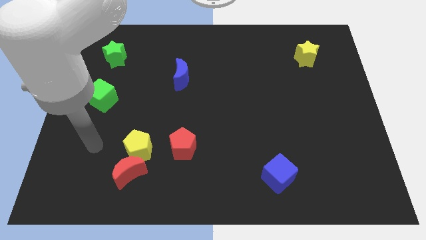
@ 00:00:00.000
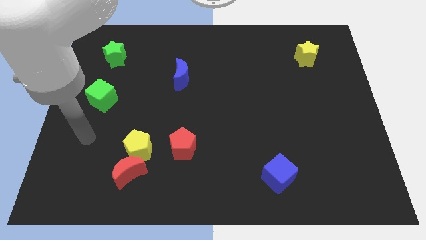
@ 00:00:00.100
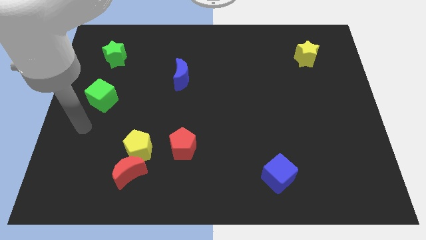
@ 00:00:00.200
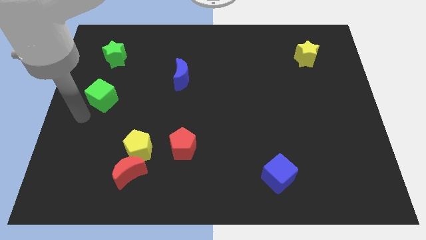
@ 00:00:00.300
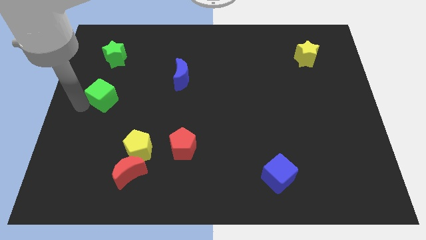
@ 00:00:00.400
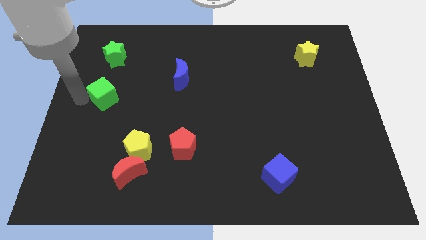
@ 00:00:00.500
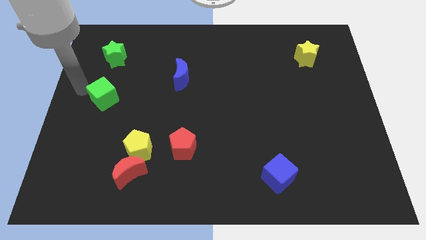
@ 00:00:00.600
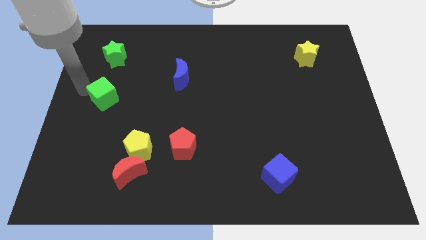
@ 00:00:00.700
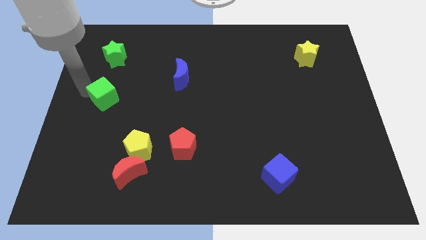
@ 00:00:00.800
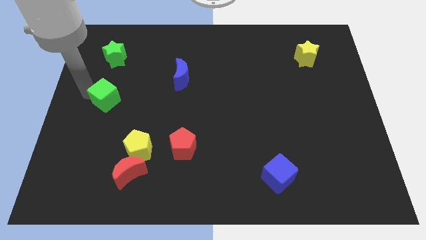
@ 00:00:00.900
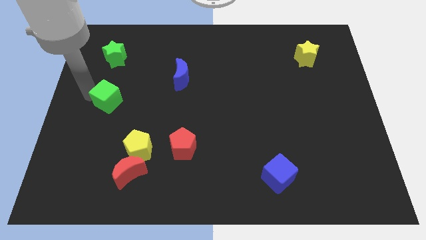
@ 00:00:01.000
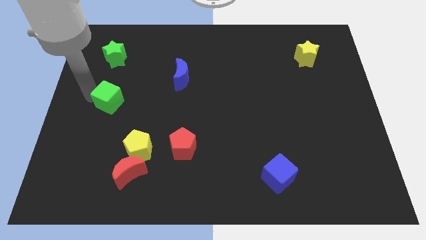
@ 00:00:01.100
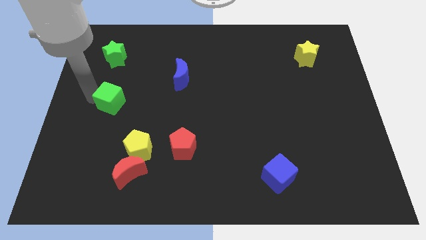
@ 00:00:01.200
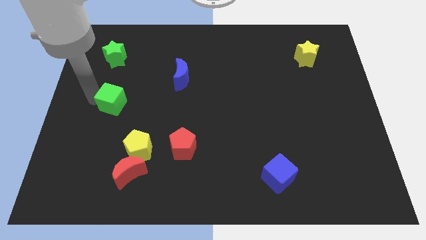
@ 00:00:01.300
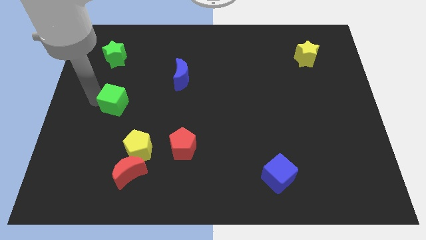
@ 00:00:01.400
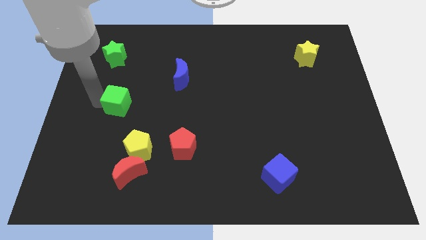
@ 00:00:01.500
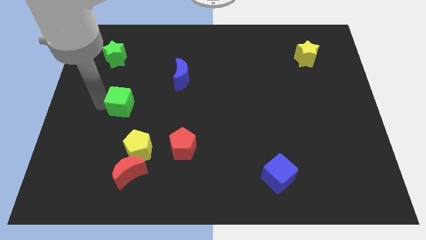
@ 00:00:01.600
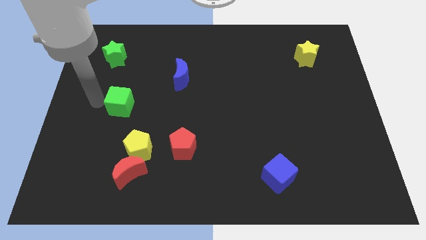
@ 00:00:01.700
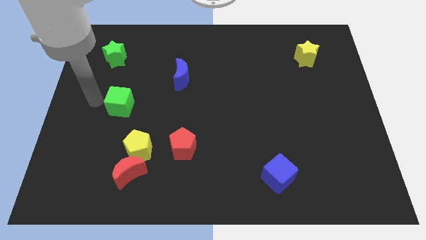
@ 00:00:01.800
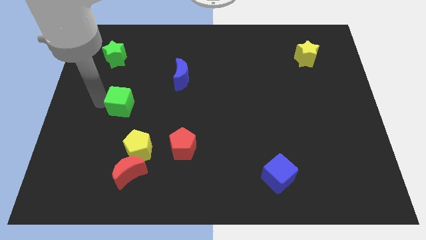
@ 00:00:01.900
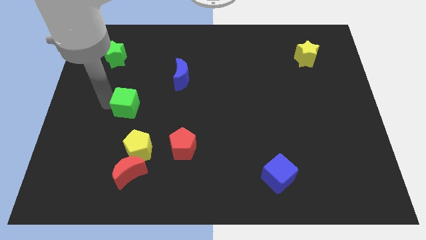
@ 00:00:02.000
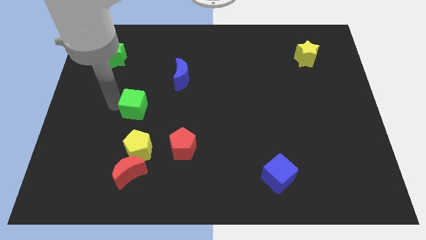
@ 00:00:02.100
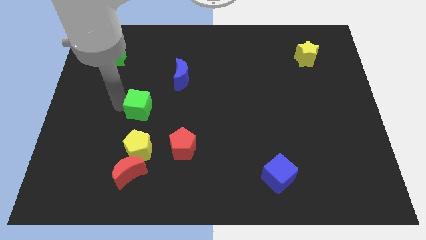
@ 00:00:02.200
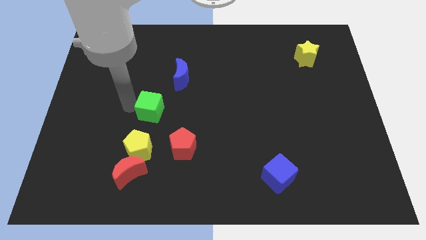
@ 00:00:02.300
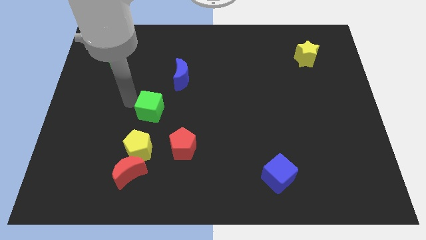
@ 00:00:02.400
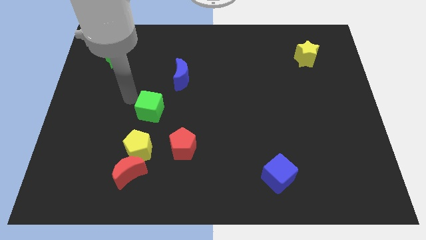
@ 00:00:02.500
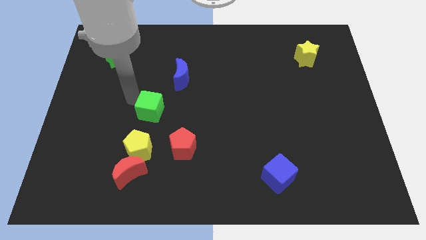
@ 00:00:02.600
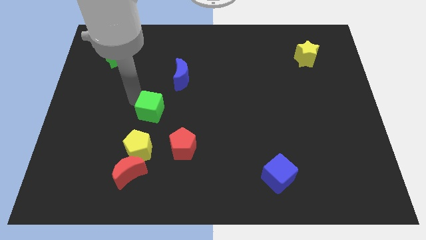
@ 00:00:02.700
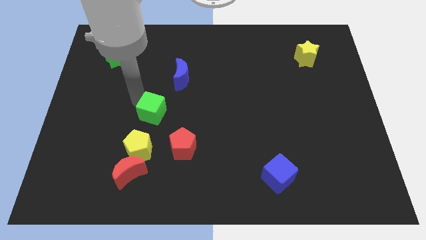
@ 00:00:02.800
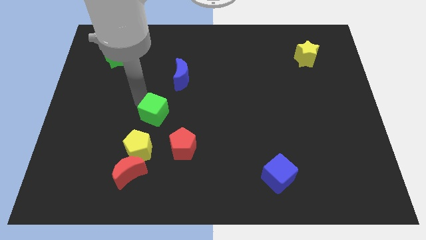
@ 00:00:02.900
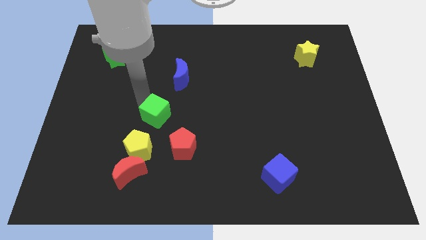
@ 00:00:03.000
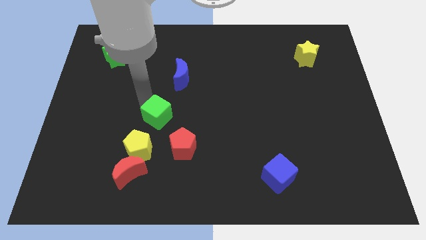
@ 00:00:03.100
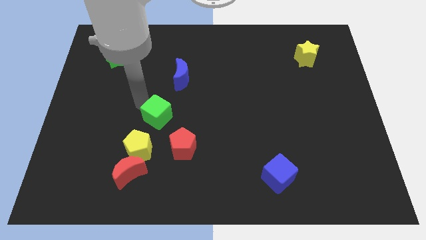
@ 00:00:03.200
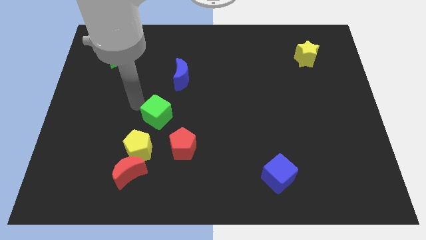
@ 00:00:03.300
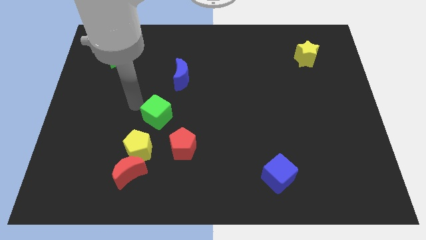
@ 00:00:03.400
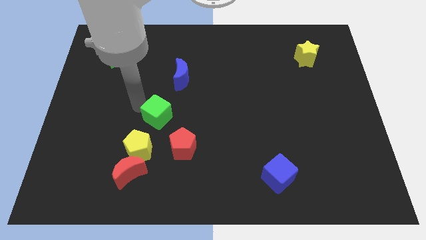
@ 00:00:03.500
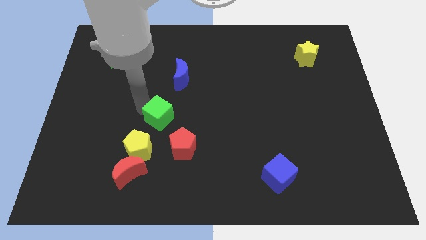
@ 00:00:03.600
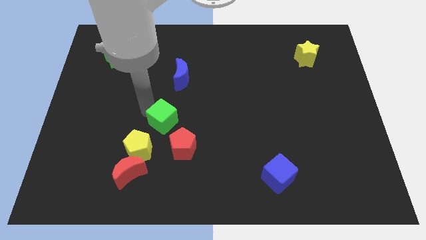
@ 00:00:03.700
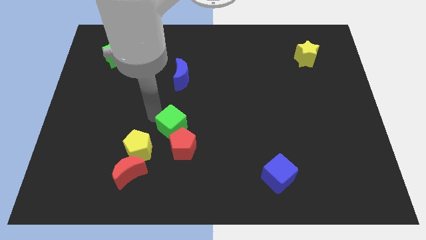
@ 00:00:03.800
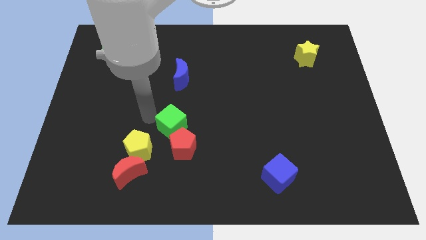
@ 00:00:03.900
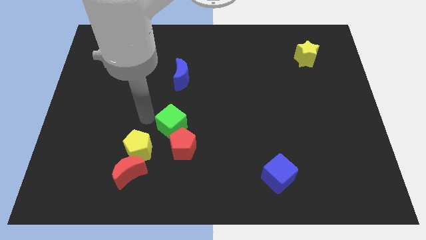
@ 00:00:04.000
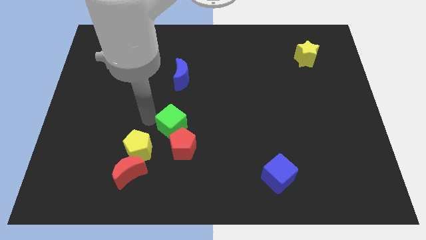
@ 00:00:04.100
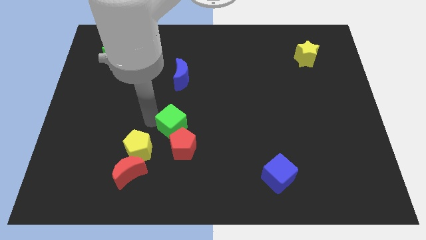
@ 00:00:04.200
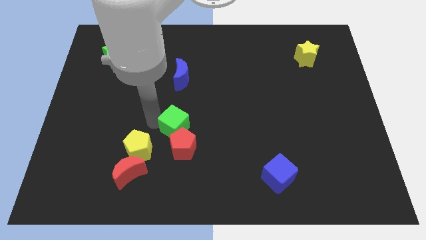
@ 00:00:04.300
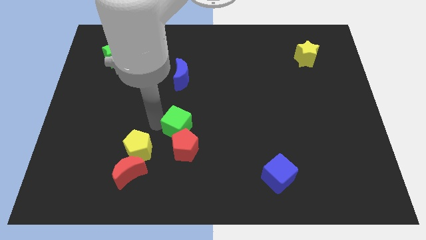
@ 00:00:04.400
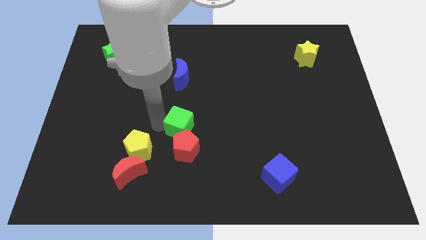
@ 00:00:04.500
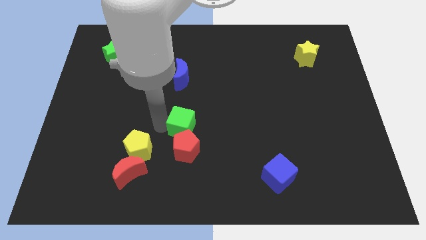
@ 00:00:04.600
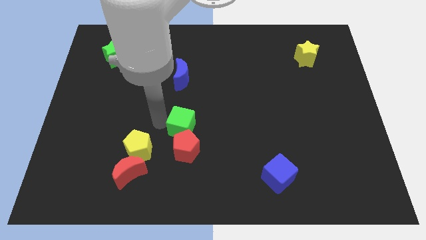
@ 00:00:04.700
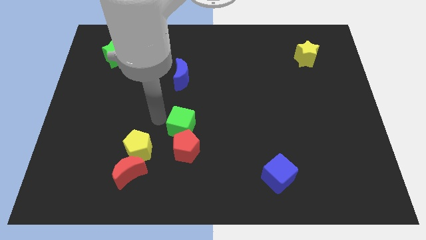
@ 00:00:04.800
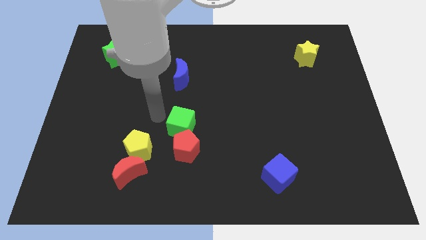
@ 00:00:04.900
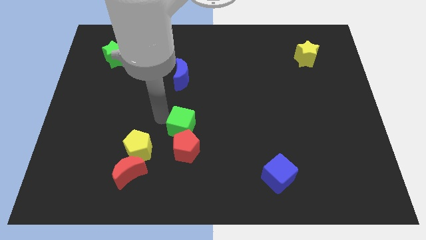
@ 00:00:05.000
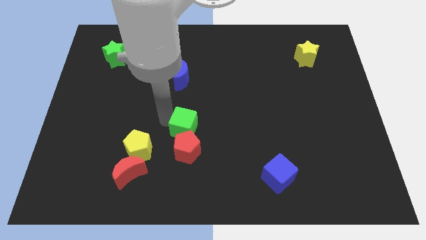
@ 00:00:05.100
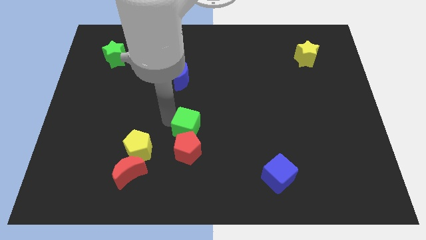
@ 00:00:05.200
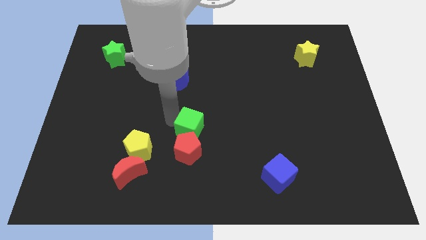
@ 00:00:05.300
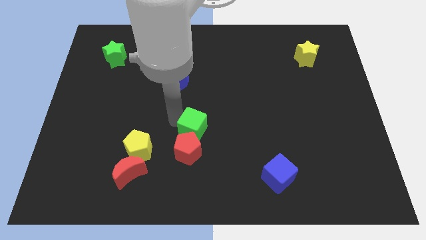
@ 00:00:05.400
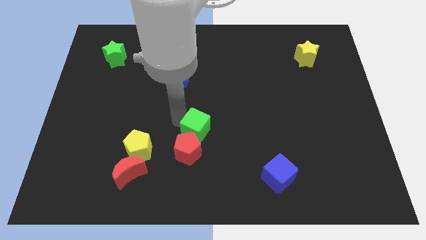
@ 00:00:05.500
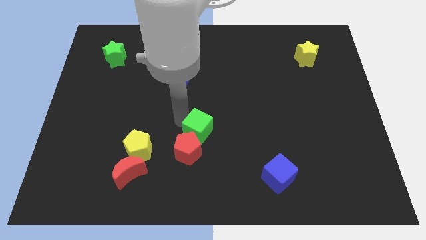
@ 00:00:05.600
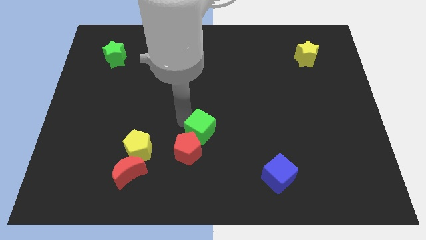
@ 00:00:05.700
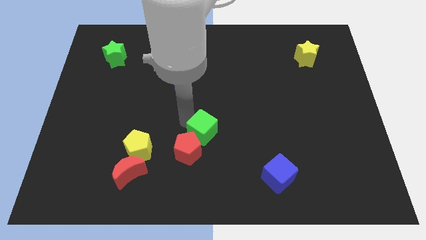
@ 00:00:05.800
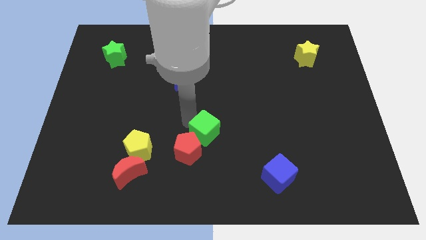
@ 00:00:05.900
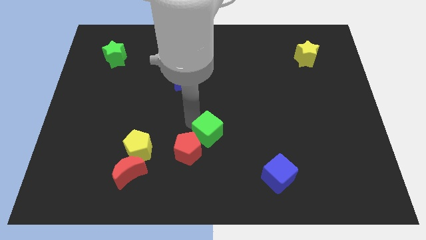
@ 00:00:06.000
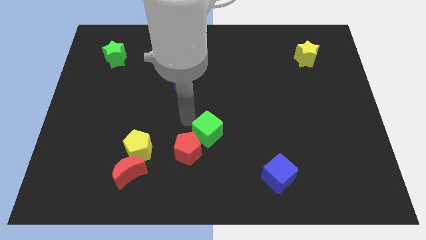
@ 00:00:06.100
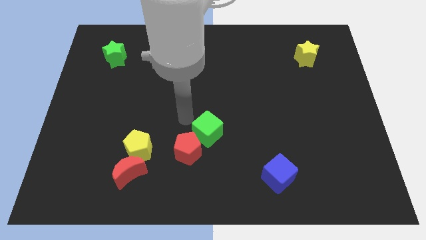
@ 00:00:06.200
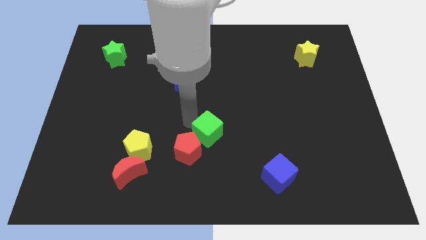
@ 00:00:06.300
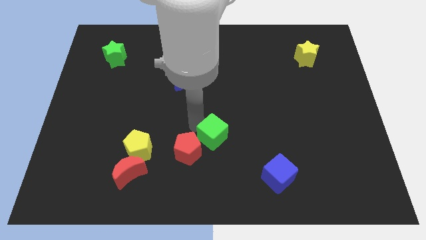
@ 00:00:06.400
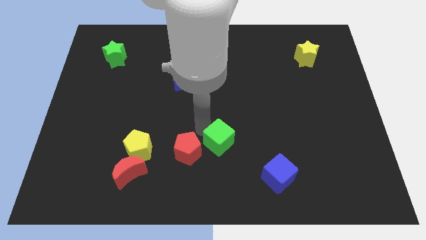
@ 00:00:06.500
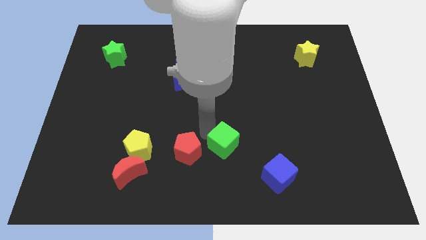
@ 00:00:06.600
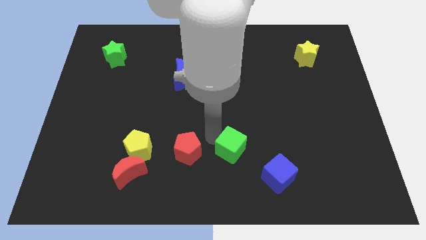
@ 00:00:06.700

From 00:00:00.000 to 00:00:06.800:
move the green cube diagonally up and to the left of the blue cube
